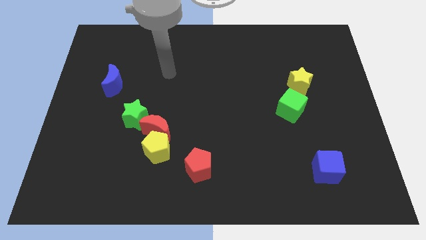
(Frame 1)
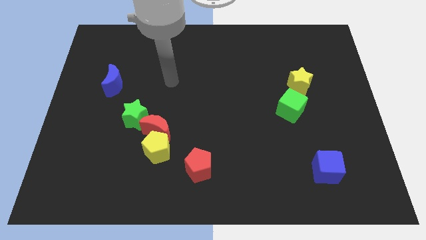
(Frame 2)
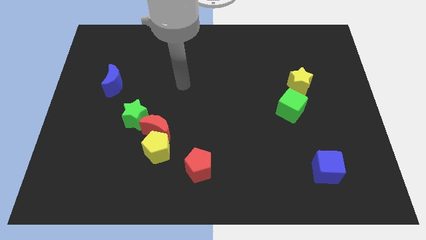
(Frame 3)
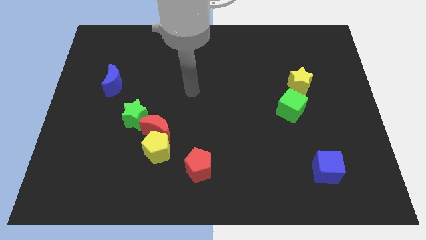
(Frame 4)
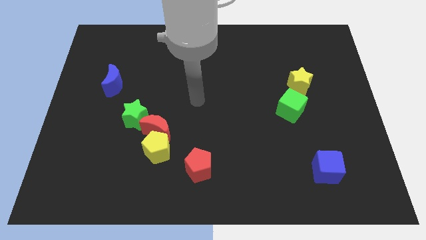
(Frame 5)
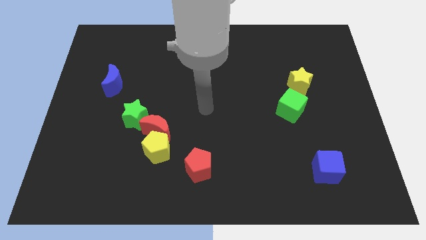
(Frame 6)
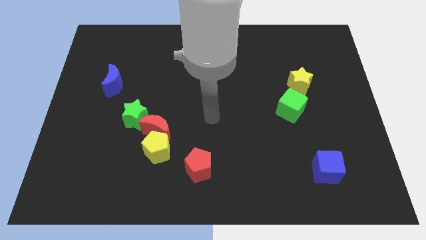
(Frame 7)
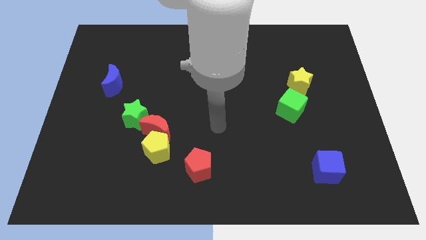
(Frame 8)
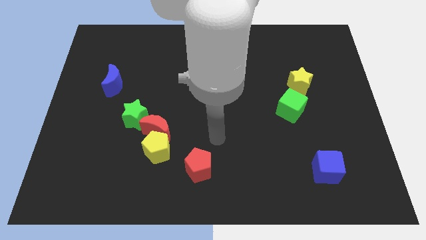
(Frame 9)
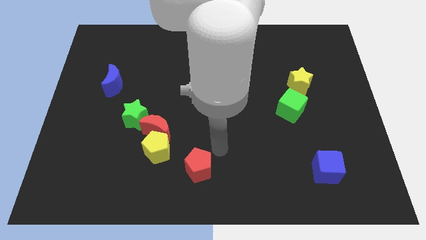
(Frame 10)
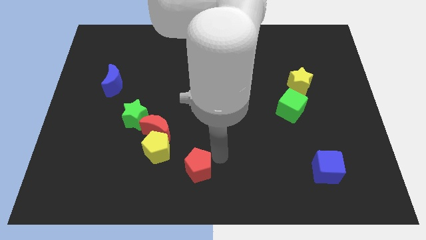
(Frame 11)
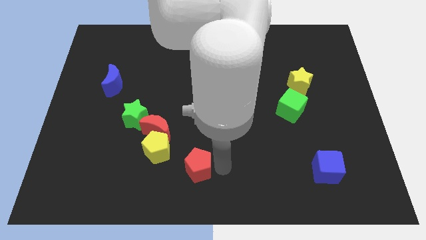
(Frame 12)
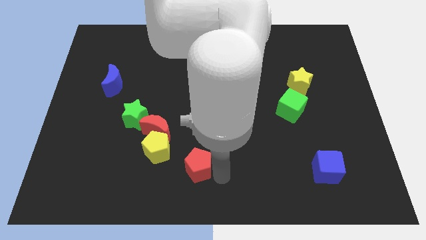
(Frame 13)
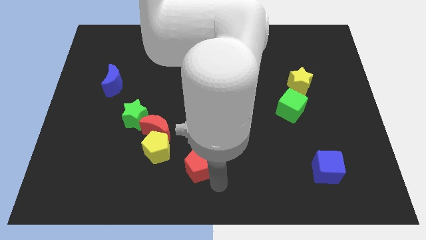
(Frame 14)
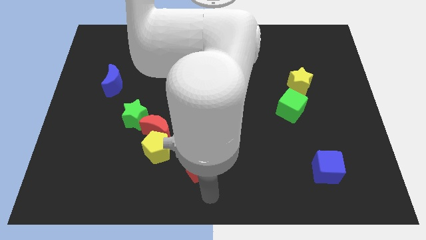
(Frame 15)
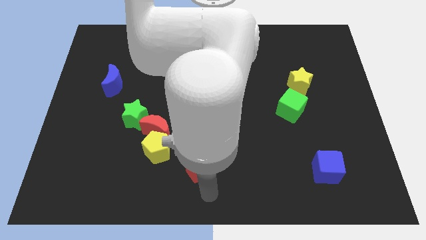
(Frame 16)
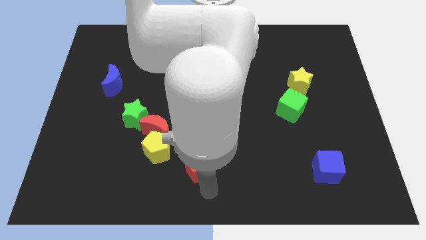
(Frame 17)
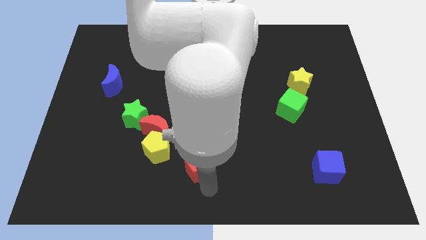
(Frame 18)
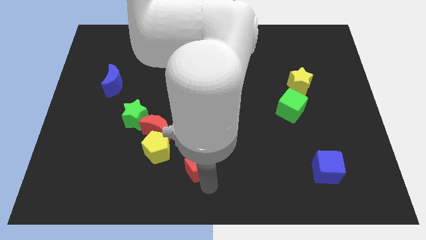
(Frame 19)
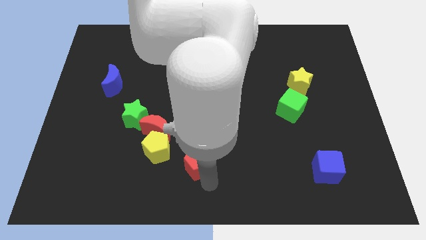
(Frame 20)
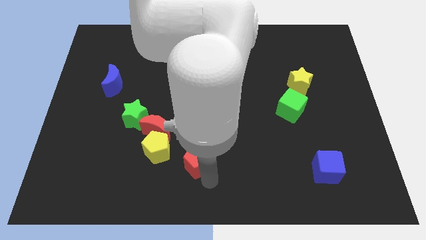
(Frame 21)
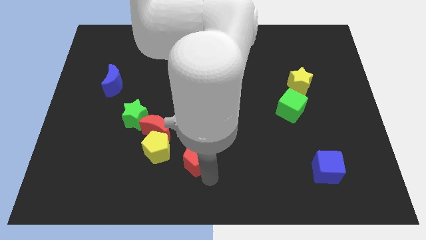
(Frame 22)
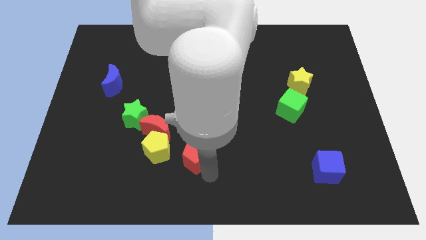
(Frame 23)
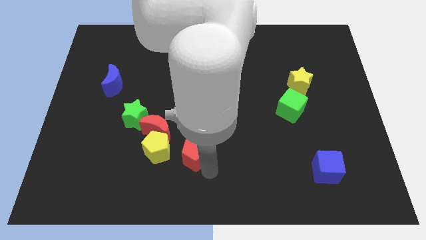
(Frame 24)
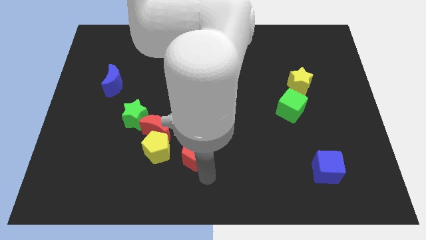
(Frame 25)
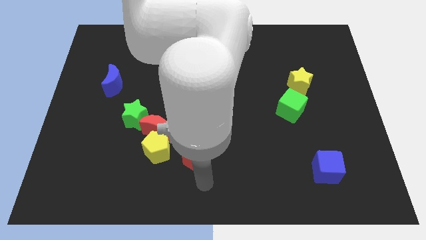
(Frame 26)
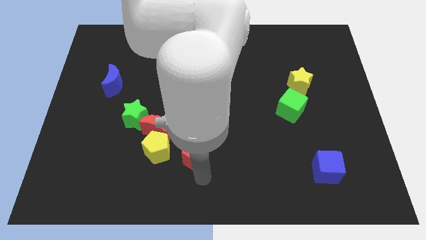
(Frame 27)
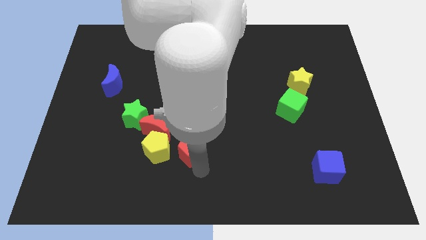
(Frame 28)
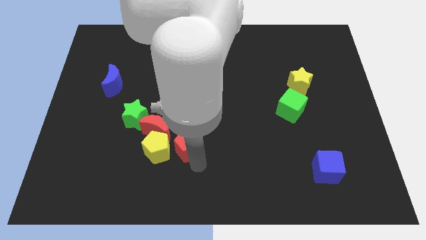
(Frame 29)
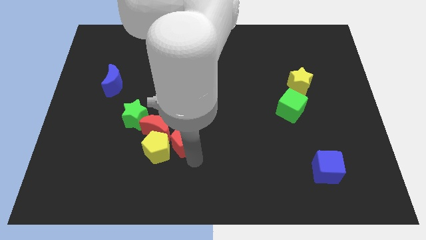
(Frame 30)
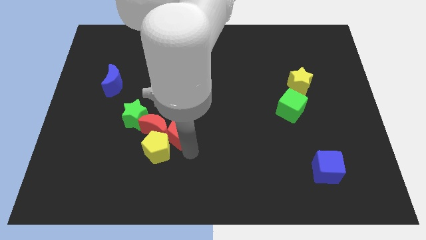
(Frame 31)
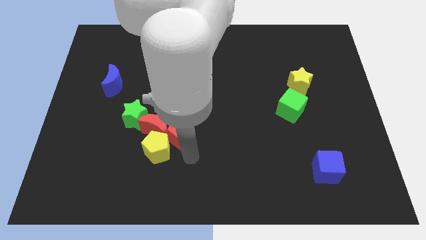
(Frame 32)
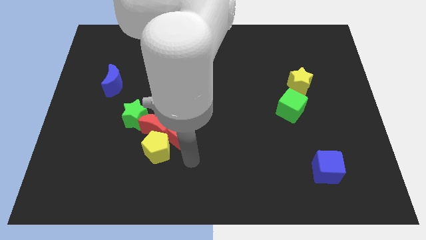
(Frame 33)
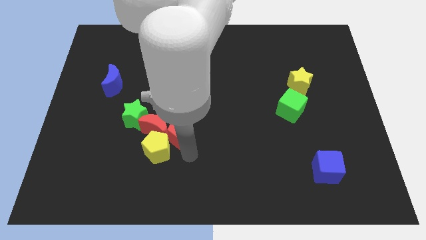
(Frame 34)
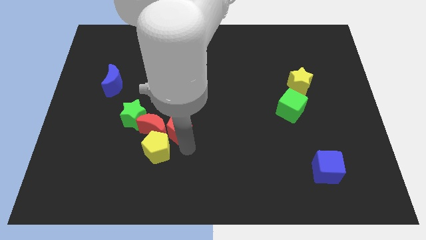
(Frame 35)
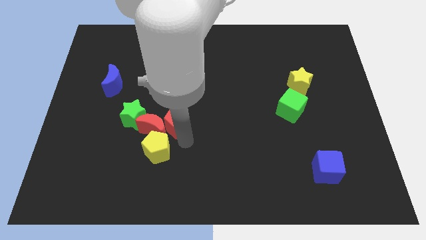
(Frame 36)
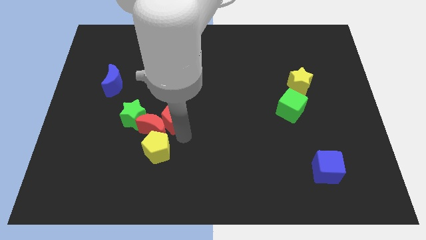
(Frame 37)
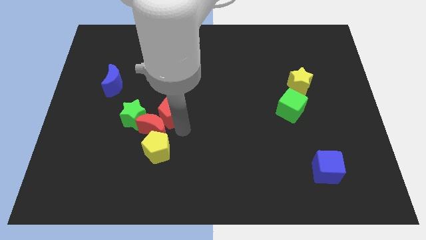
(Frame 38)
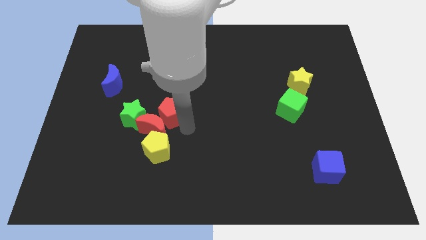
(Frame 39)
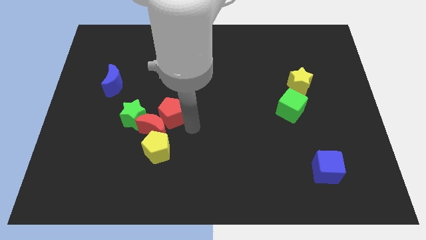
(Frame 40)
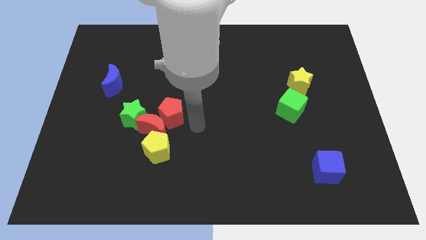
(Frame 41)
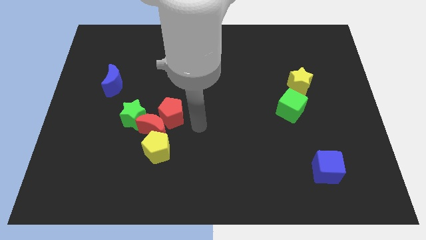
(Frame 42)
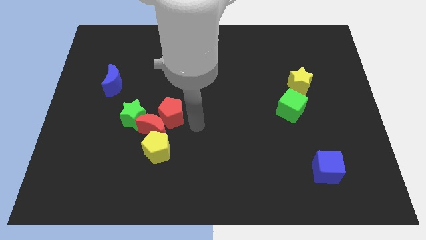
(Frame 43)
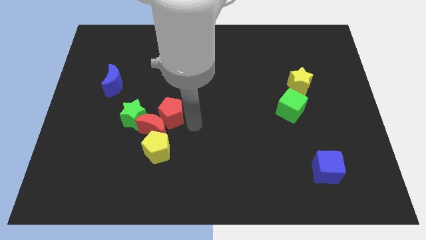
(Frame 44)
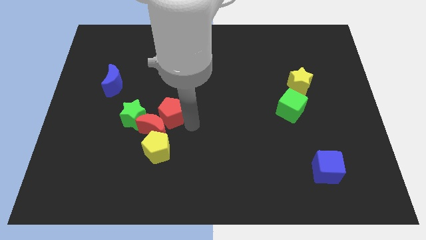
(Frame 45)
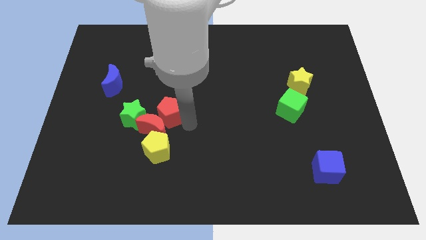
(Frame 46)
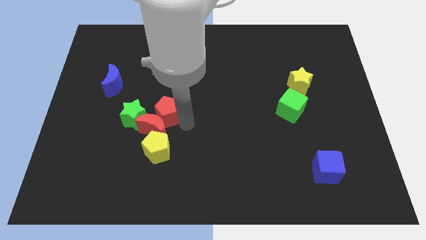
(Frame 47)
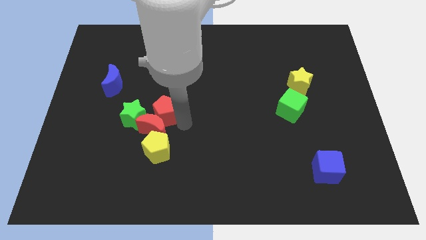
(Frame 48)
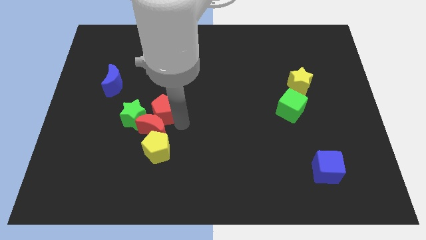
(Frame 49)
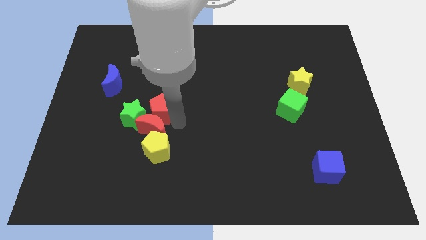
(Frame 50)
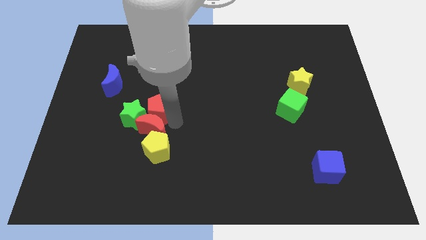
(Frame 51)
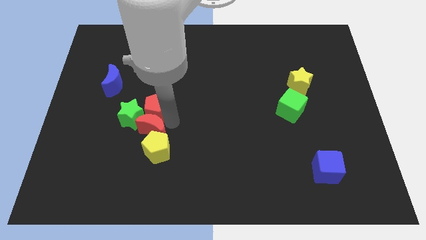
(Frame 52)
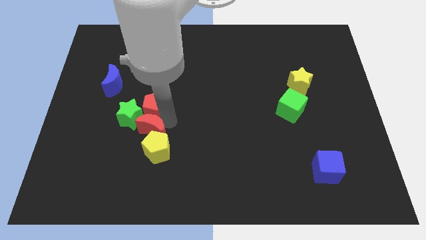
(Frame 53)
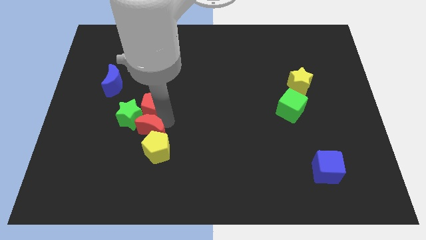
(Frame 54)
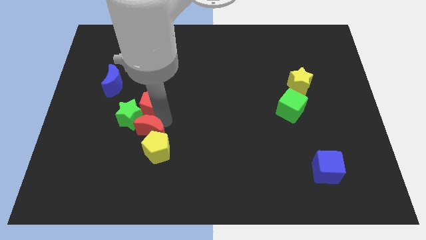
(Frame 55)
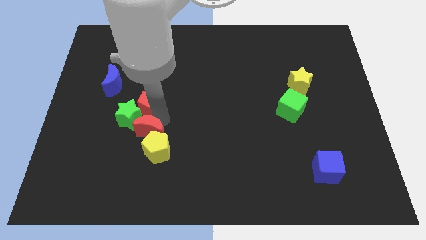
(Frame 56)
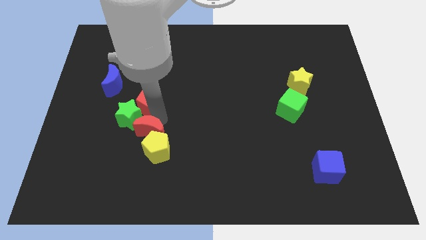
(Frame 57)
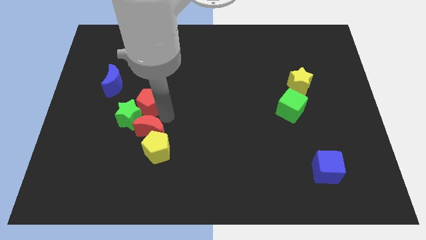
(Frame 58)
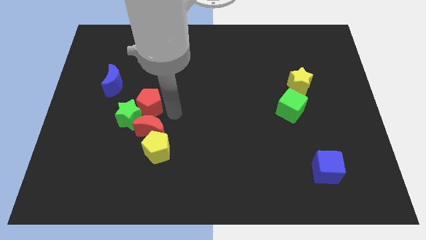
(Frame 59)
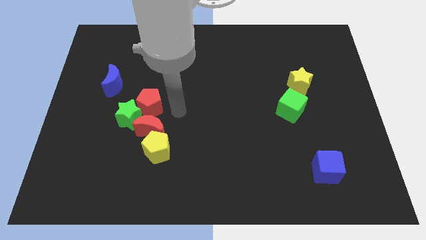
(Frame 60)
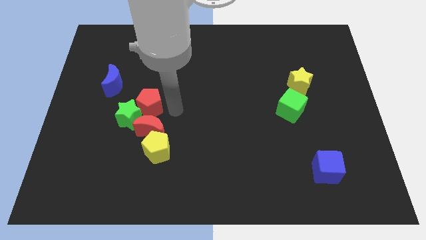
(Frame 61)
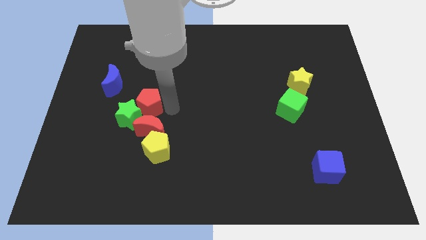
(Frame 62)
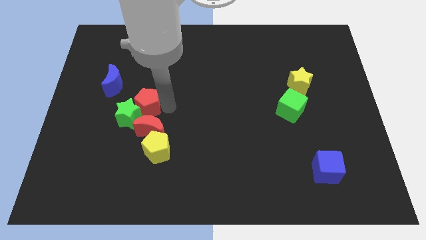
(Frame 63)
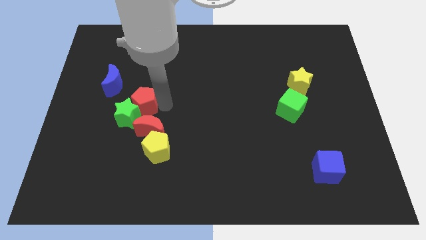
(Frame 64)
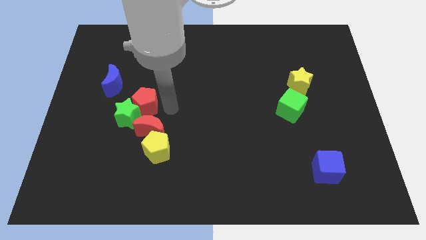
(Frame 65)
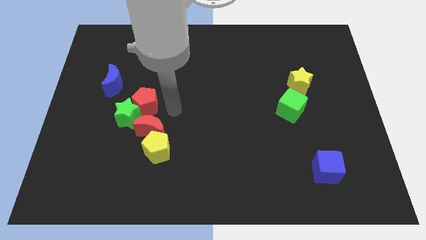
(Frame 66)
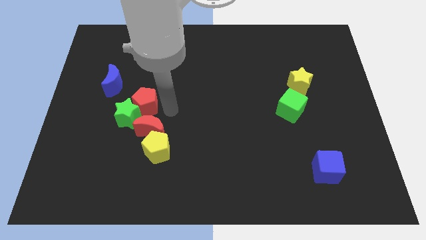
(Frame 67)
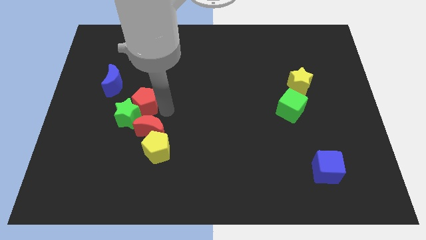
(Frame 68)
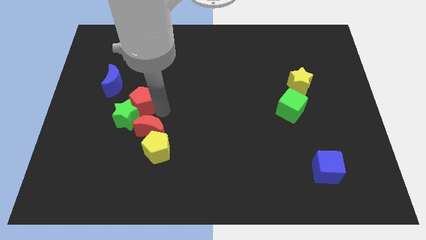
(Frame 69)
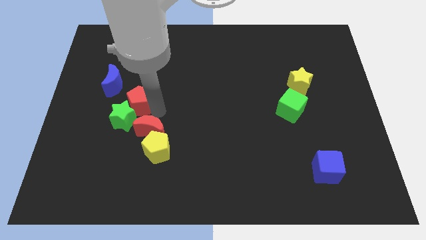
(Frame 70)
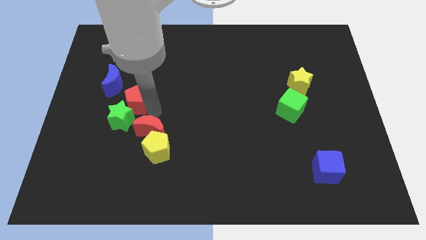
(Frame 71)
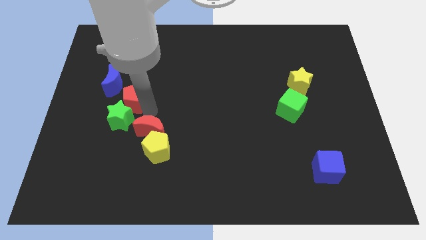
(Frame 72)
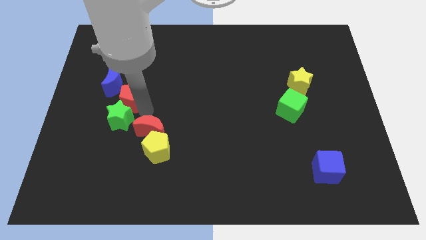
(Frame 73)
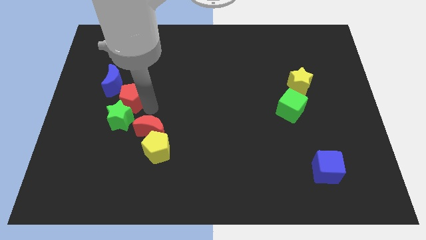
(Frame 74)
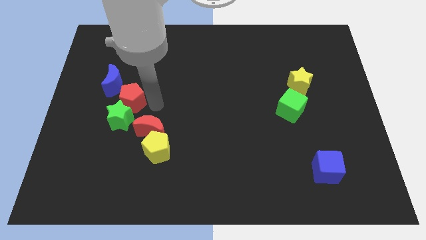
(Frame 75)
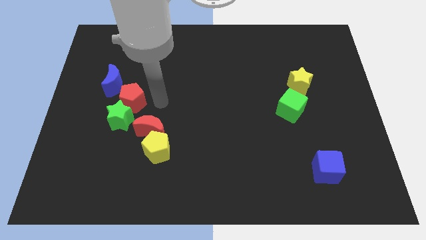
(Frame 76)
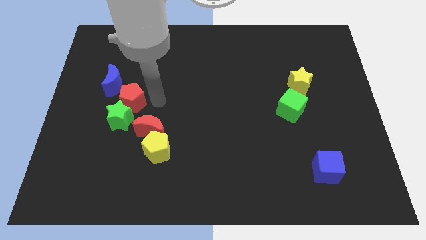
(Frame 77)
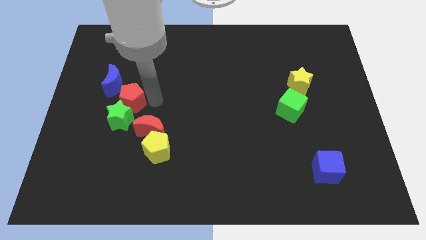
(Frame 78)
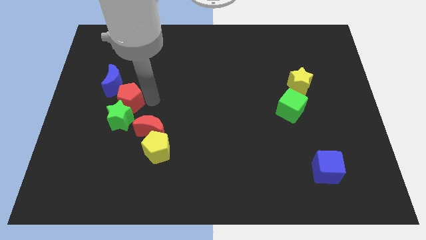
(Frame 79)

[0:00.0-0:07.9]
move the red pentagon diagonally up and to the left of the green star
